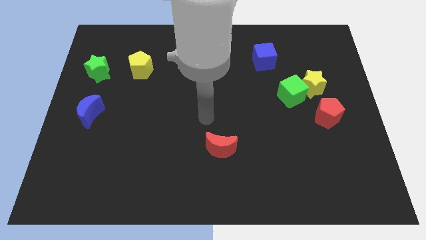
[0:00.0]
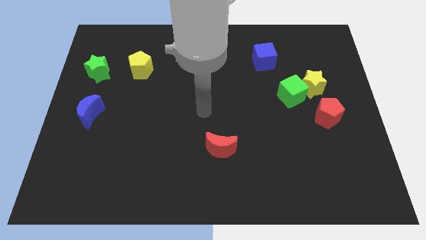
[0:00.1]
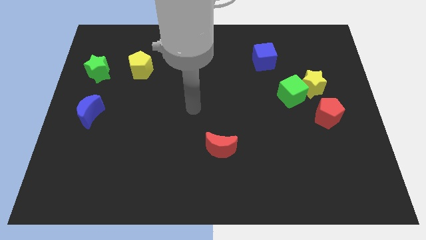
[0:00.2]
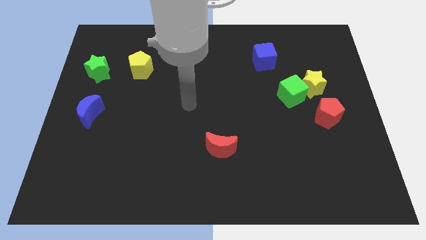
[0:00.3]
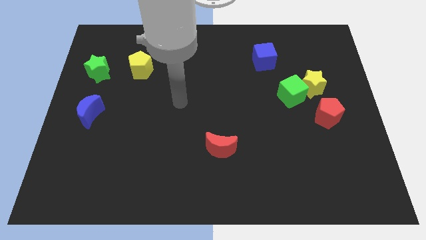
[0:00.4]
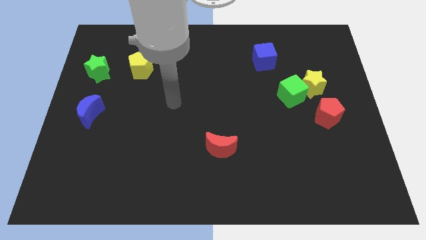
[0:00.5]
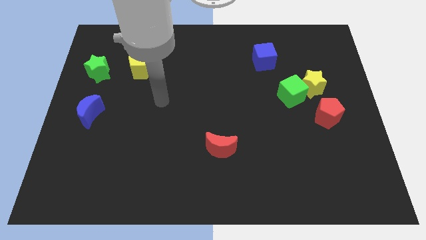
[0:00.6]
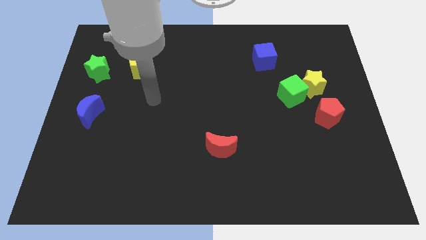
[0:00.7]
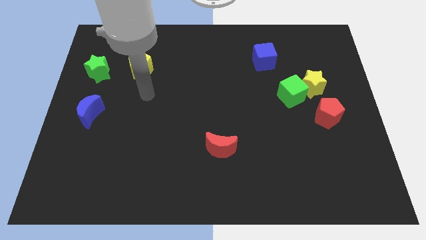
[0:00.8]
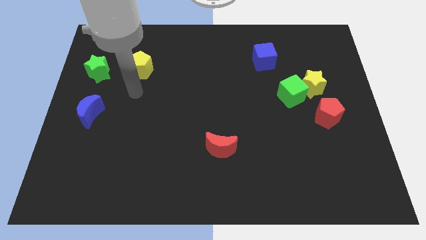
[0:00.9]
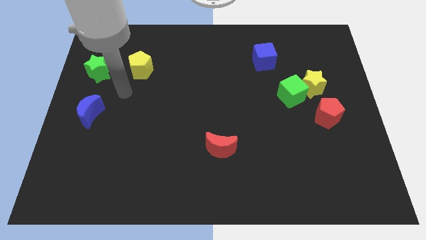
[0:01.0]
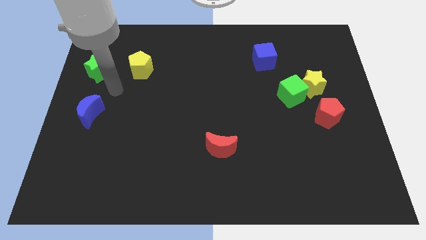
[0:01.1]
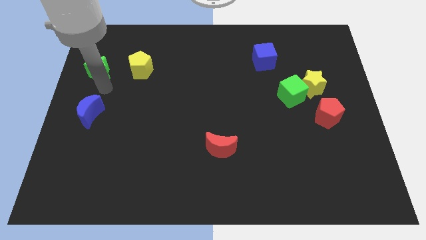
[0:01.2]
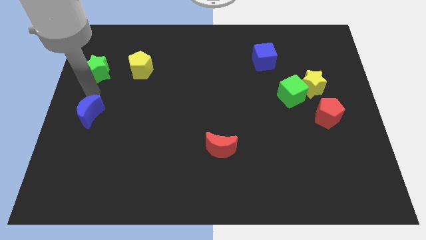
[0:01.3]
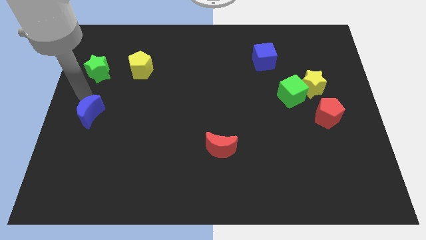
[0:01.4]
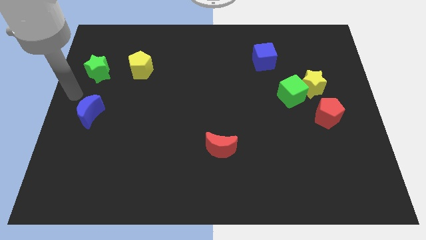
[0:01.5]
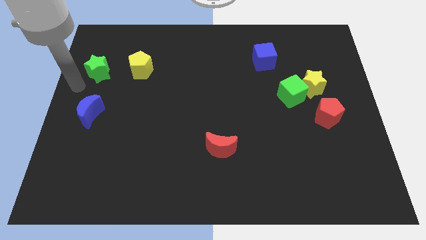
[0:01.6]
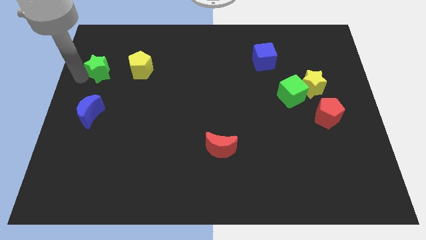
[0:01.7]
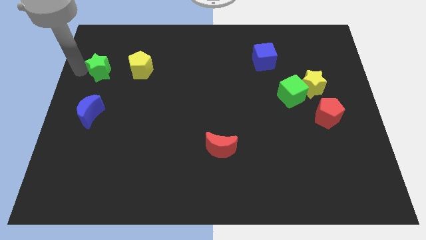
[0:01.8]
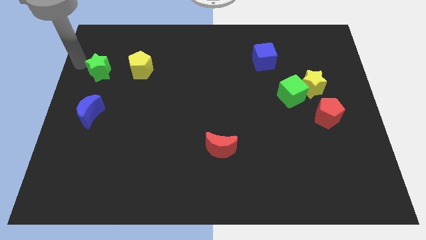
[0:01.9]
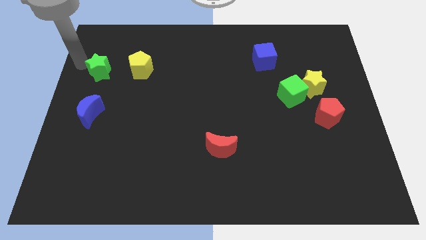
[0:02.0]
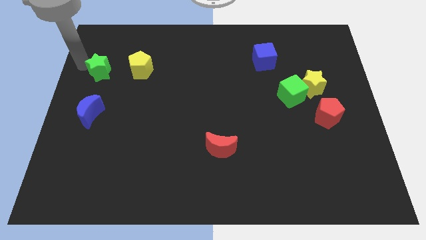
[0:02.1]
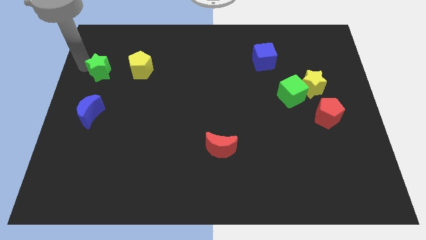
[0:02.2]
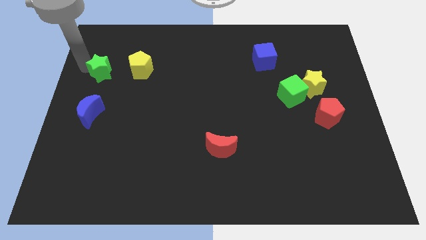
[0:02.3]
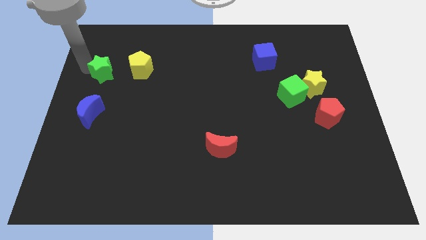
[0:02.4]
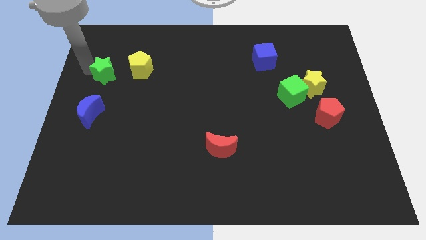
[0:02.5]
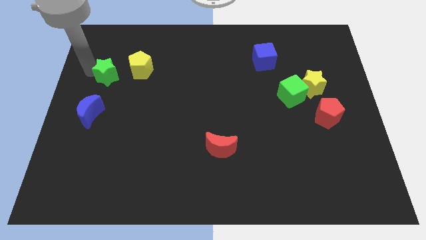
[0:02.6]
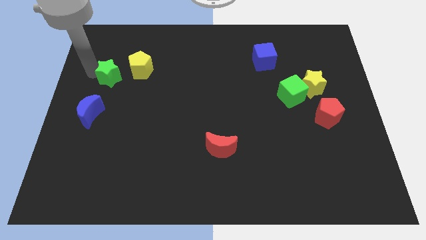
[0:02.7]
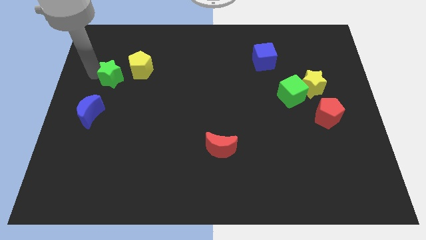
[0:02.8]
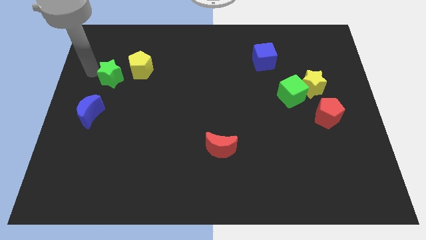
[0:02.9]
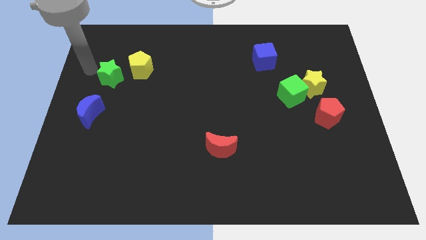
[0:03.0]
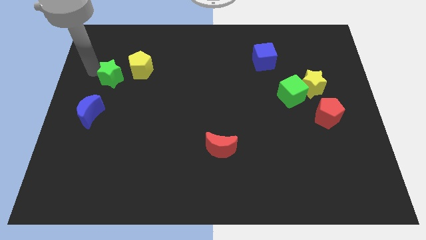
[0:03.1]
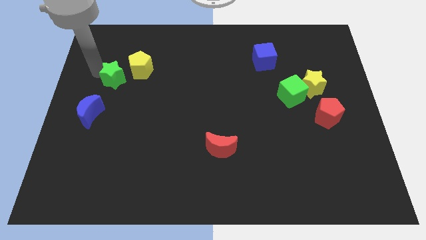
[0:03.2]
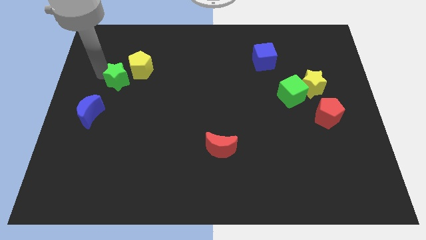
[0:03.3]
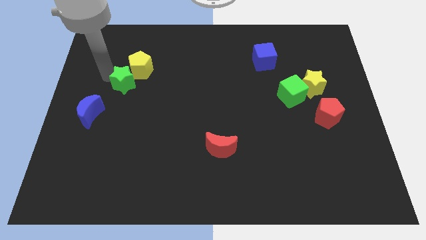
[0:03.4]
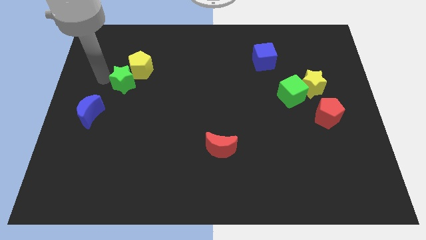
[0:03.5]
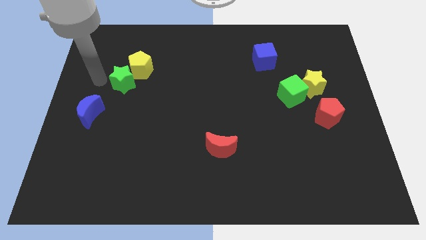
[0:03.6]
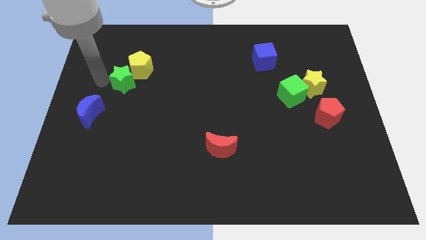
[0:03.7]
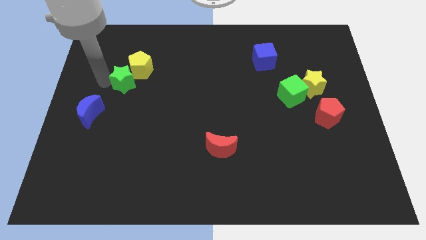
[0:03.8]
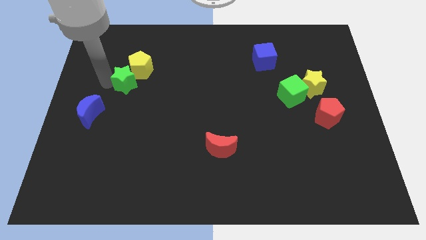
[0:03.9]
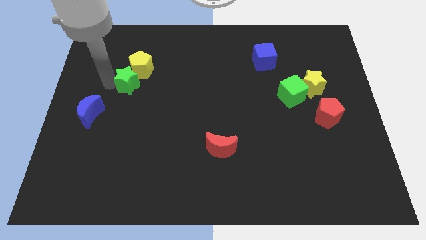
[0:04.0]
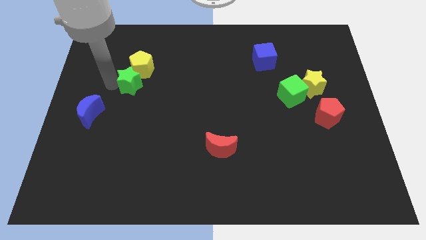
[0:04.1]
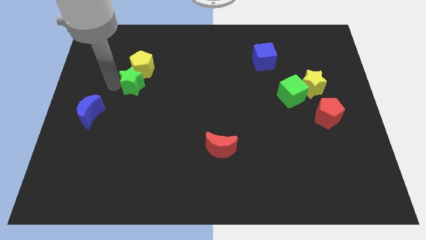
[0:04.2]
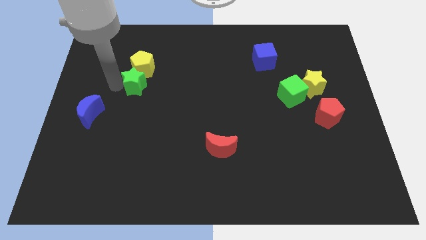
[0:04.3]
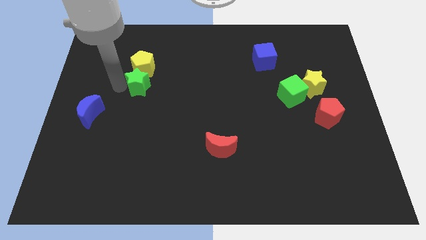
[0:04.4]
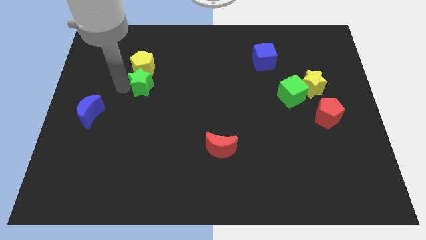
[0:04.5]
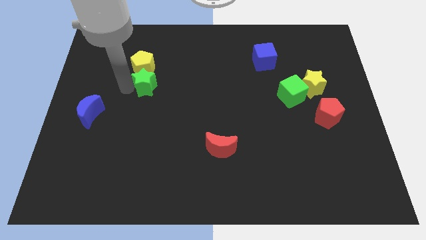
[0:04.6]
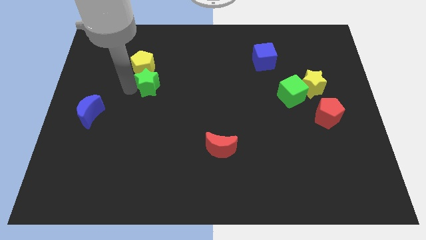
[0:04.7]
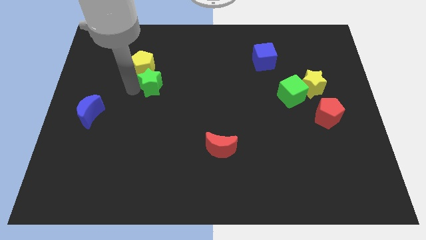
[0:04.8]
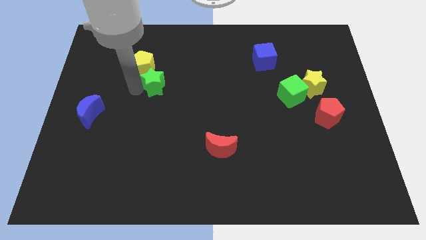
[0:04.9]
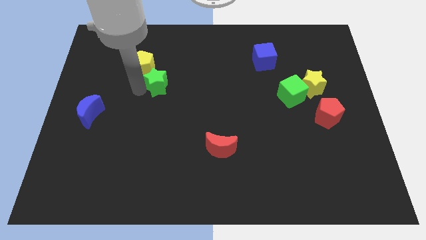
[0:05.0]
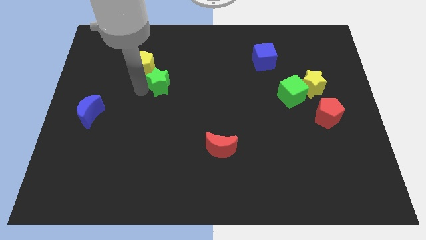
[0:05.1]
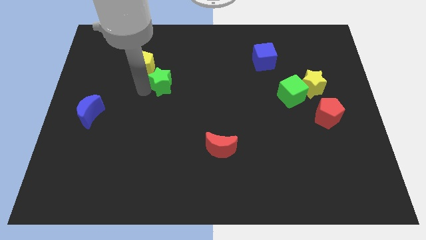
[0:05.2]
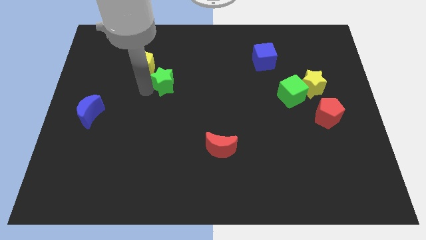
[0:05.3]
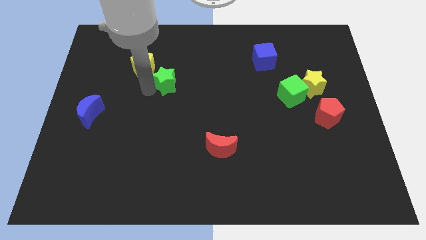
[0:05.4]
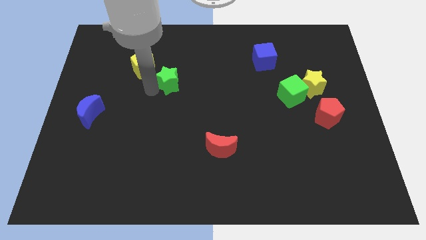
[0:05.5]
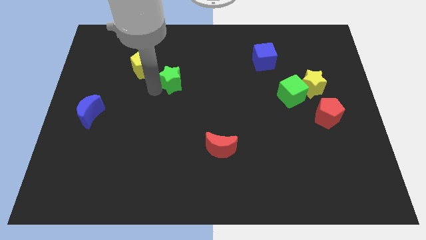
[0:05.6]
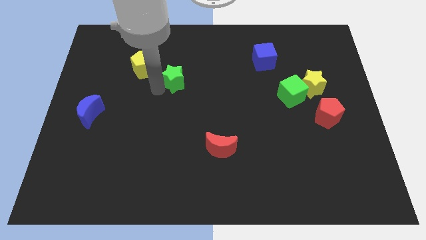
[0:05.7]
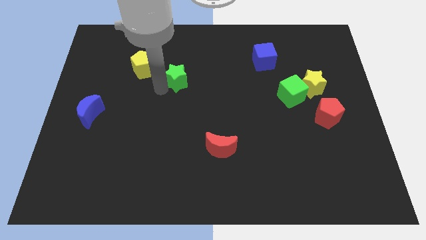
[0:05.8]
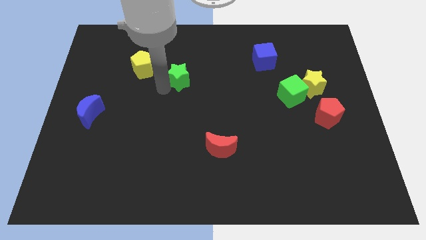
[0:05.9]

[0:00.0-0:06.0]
move the green star right

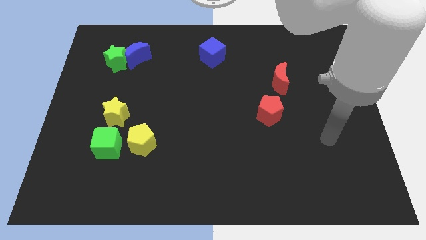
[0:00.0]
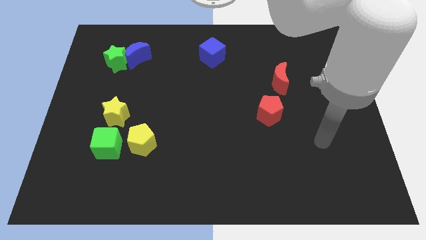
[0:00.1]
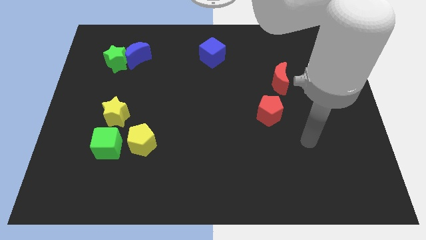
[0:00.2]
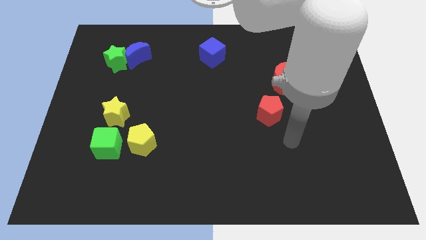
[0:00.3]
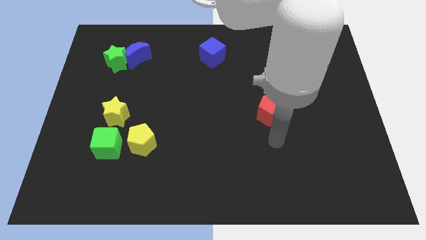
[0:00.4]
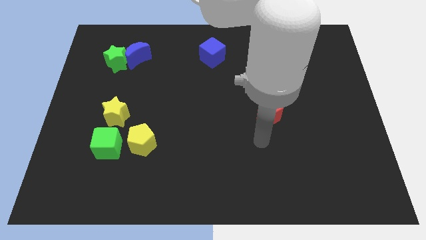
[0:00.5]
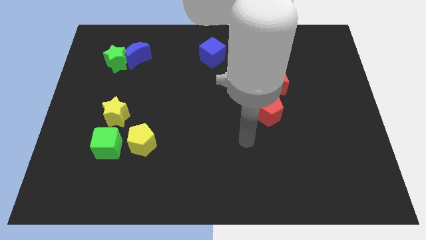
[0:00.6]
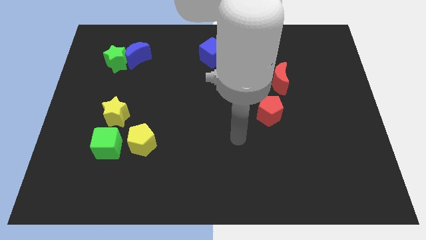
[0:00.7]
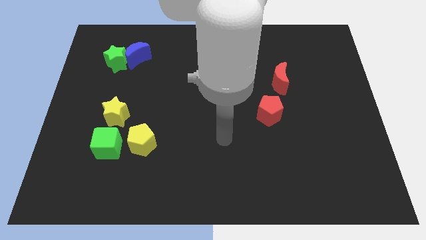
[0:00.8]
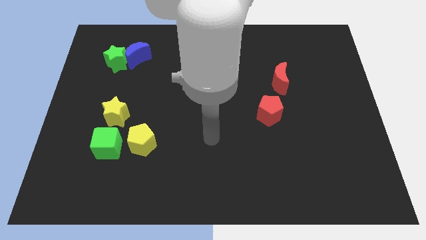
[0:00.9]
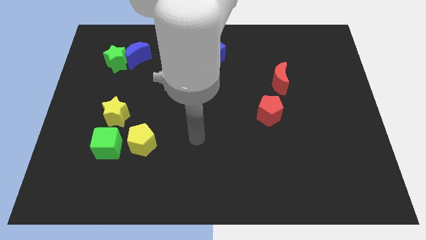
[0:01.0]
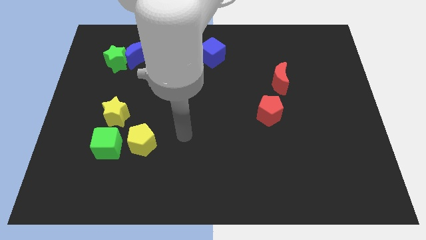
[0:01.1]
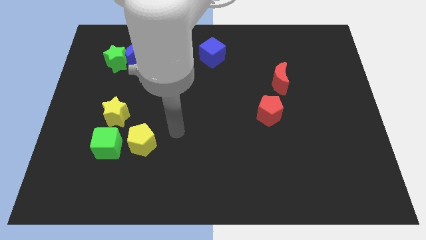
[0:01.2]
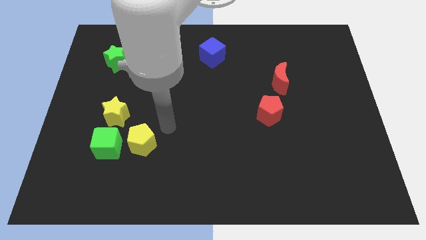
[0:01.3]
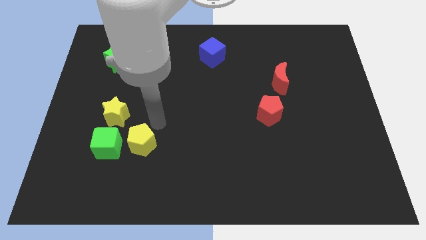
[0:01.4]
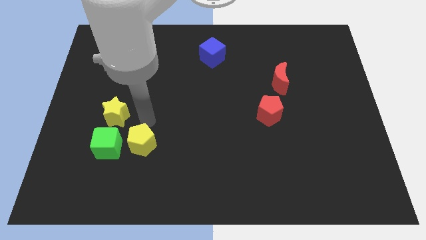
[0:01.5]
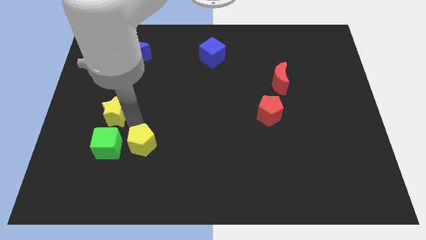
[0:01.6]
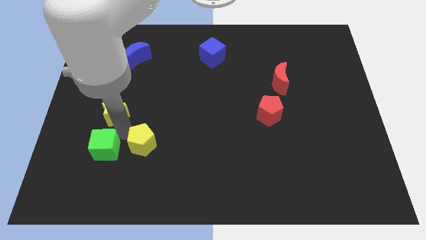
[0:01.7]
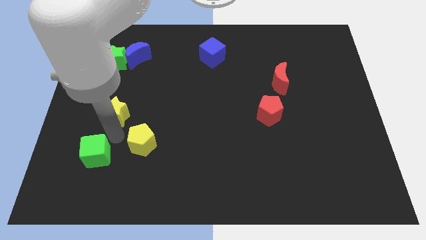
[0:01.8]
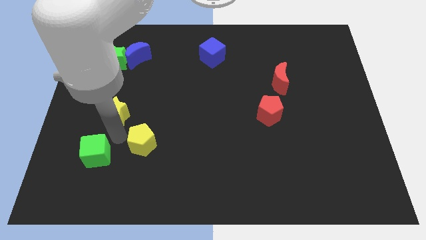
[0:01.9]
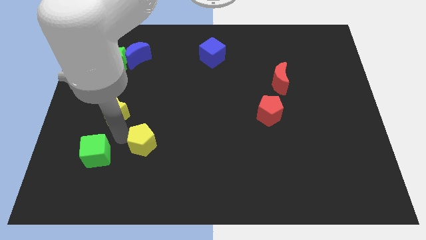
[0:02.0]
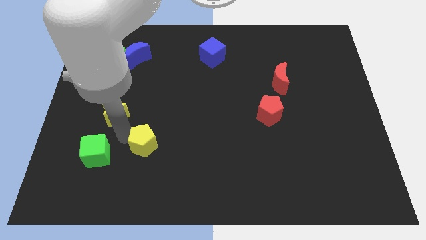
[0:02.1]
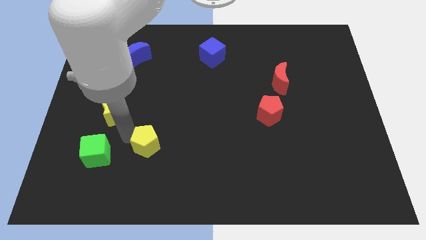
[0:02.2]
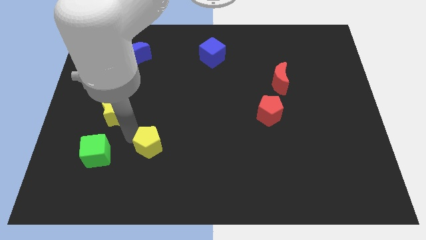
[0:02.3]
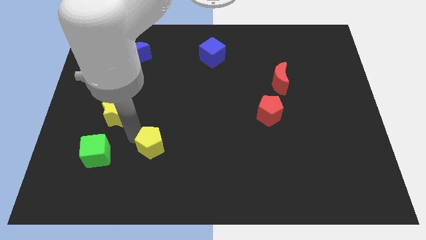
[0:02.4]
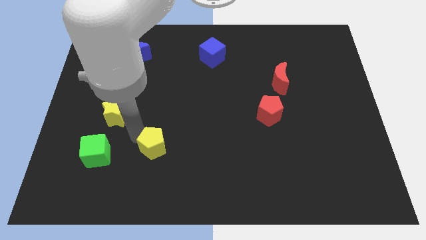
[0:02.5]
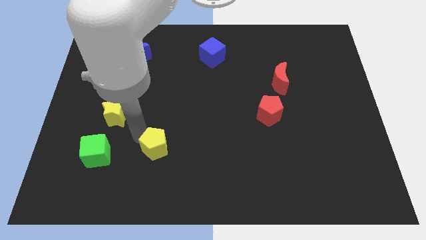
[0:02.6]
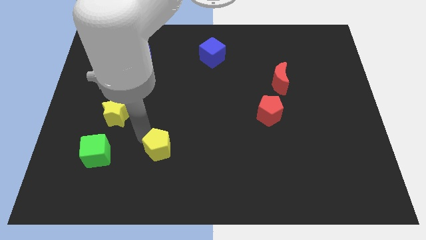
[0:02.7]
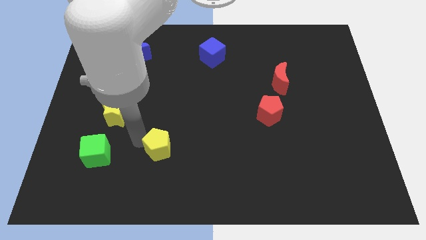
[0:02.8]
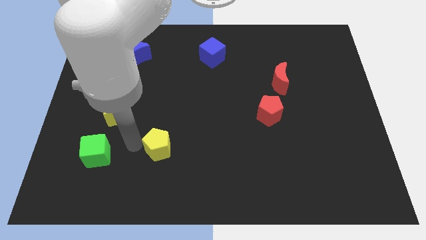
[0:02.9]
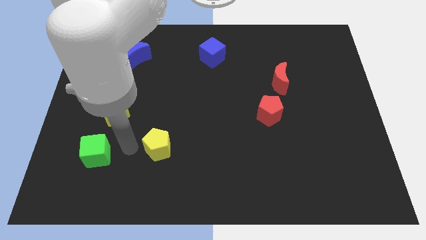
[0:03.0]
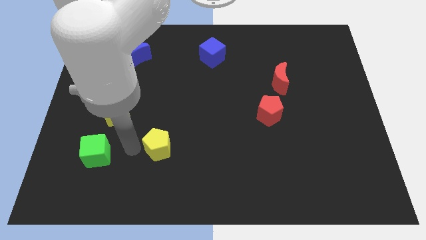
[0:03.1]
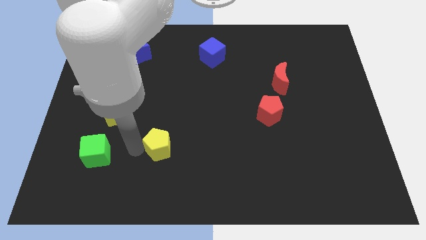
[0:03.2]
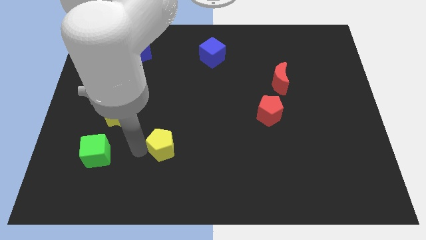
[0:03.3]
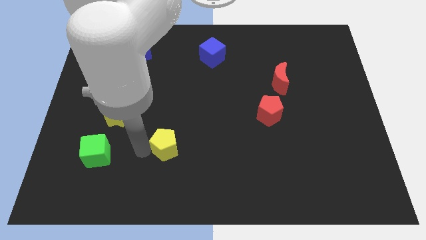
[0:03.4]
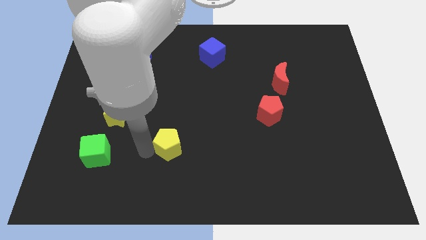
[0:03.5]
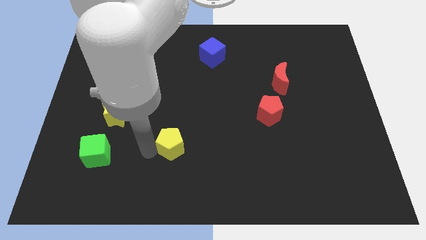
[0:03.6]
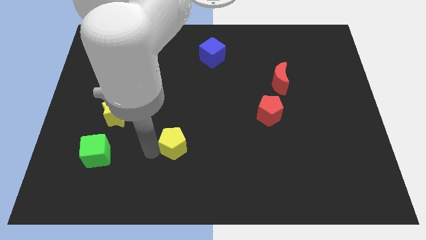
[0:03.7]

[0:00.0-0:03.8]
move the yellow pentagon a little bit to the right
